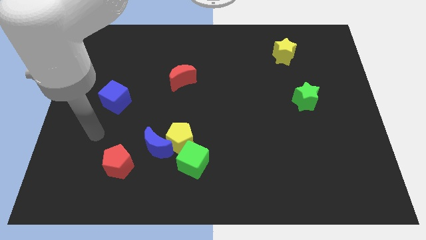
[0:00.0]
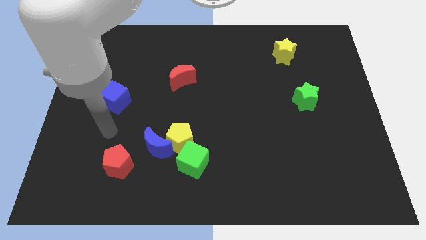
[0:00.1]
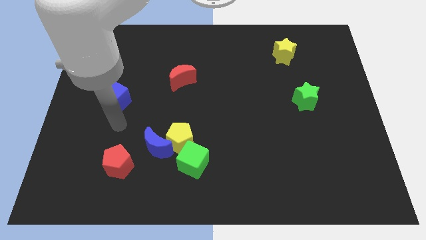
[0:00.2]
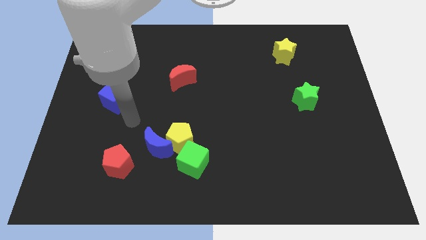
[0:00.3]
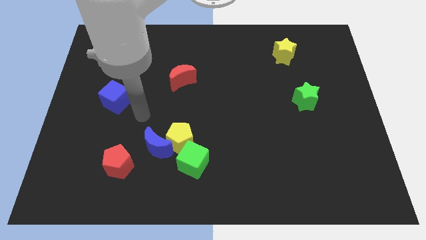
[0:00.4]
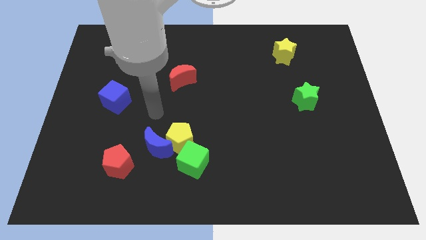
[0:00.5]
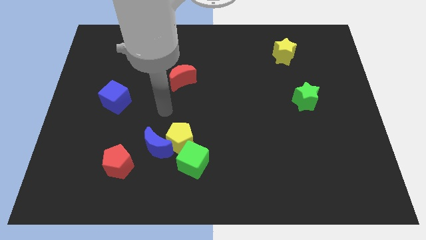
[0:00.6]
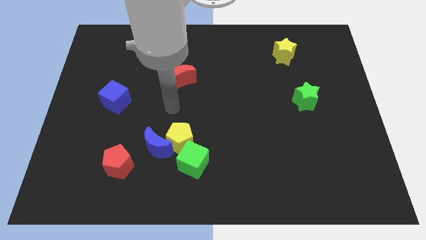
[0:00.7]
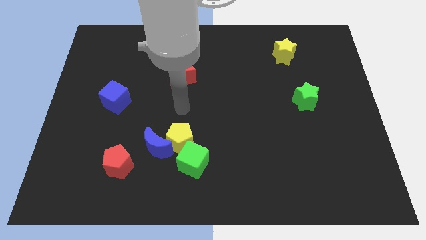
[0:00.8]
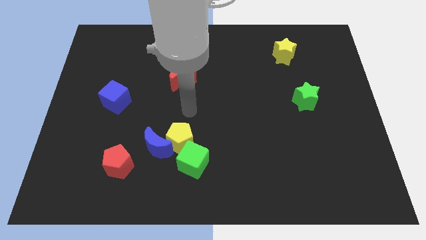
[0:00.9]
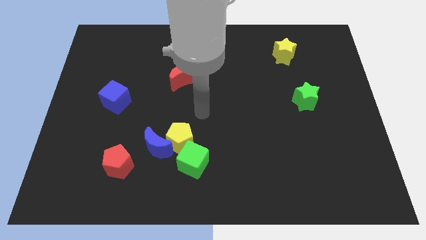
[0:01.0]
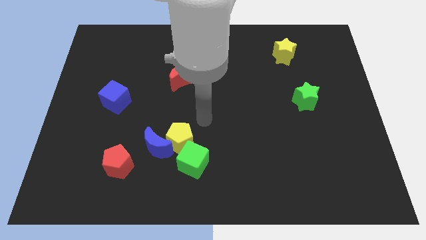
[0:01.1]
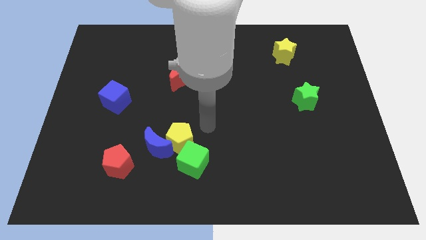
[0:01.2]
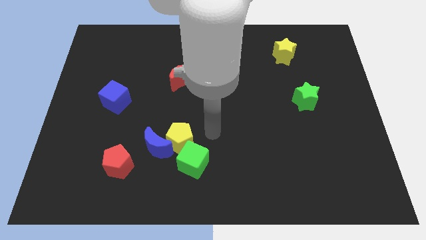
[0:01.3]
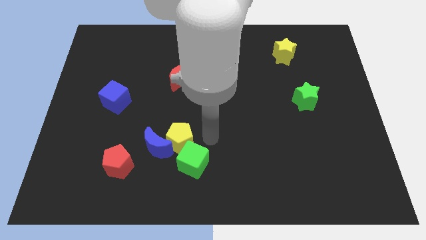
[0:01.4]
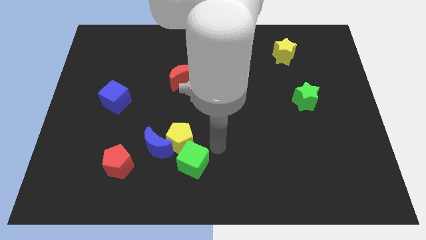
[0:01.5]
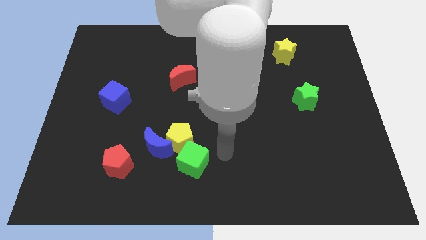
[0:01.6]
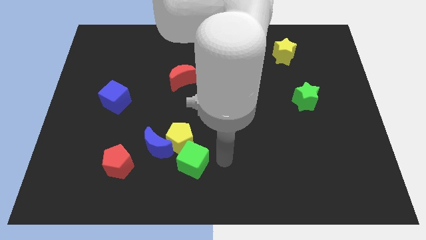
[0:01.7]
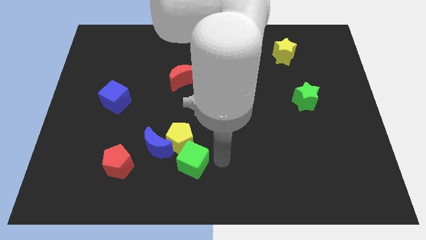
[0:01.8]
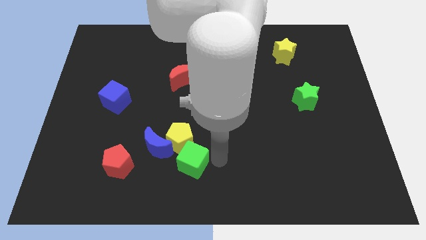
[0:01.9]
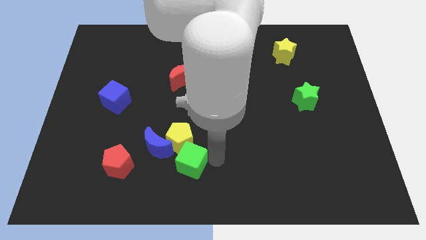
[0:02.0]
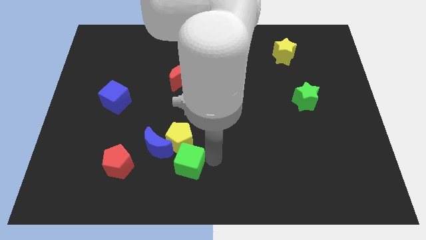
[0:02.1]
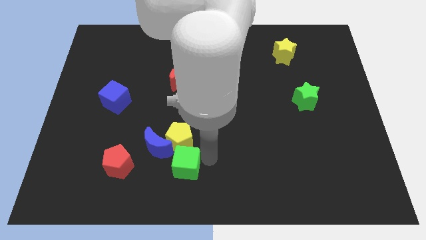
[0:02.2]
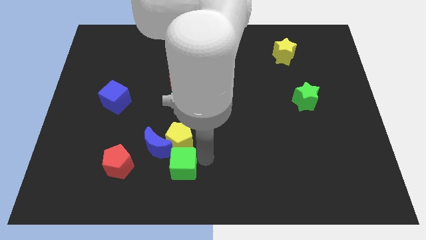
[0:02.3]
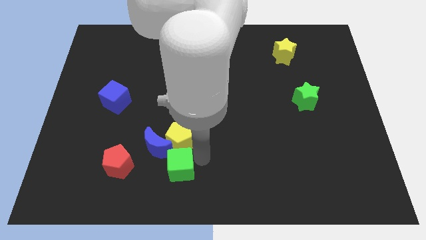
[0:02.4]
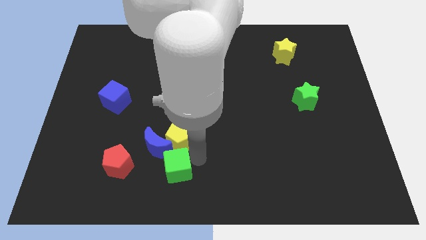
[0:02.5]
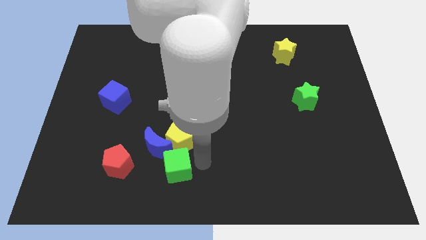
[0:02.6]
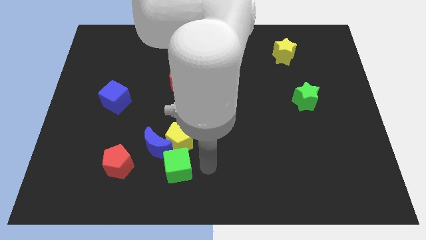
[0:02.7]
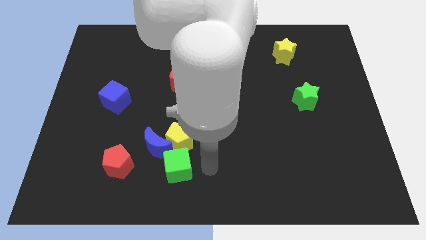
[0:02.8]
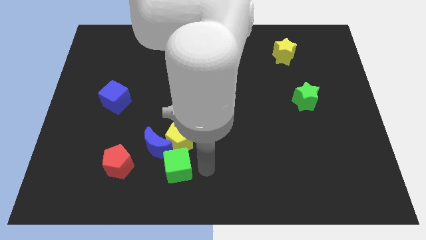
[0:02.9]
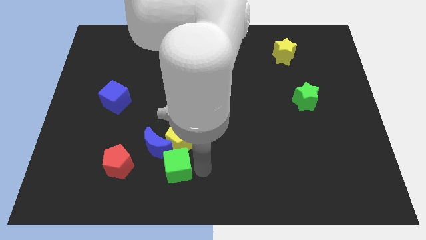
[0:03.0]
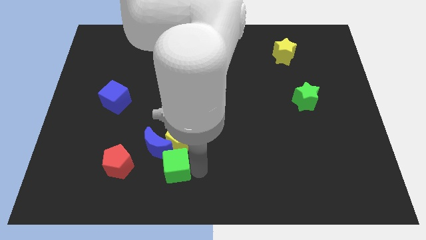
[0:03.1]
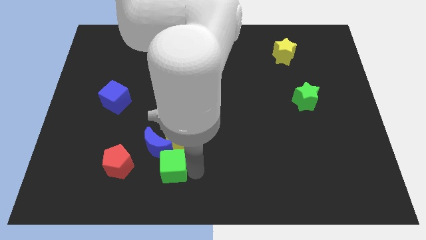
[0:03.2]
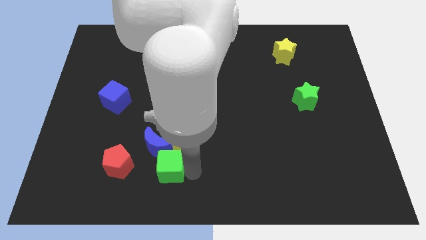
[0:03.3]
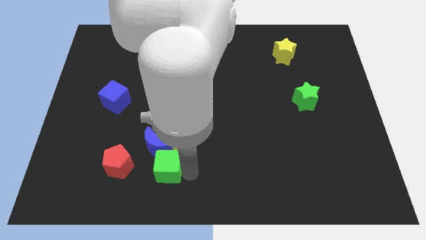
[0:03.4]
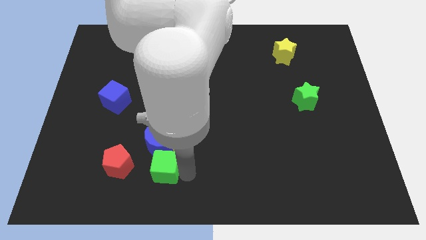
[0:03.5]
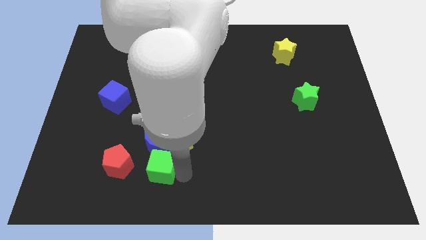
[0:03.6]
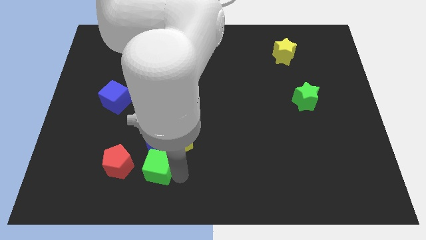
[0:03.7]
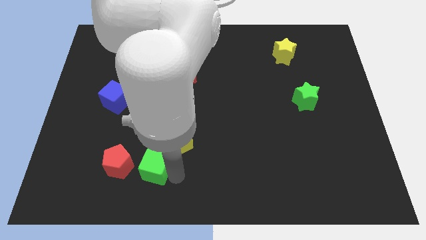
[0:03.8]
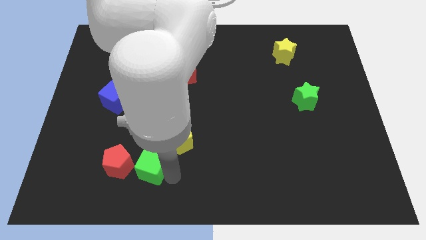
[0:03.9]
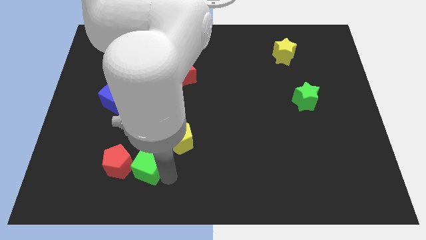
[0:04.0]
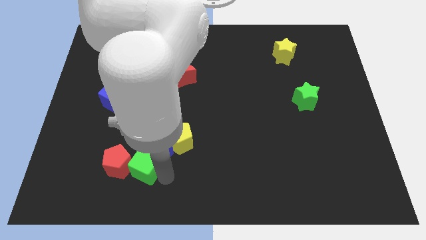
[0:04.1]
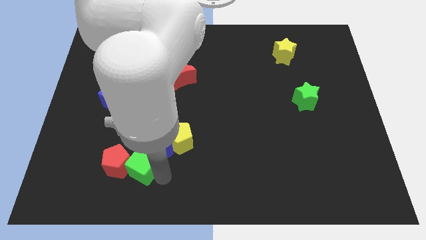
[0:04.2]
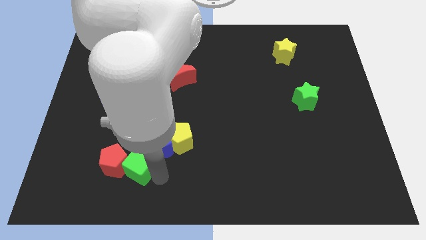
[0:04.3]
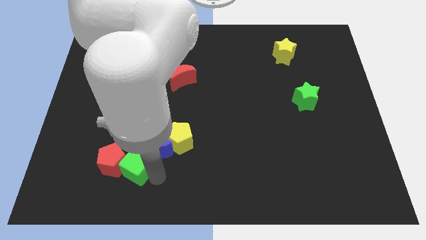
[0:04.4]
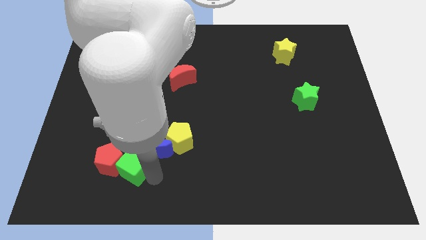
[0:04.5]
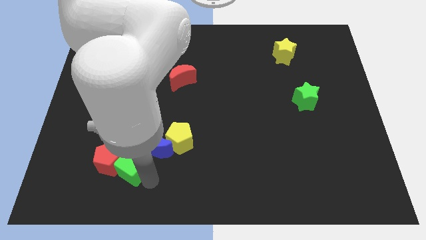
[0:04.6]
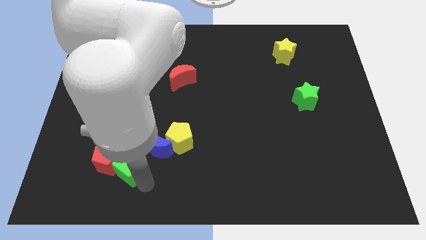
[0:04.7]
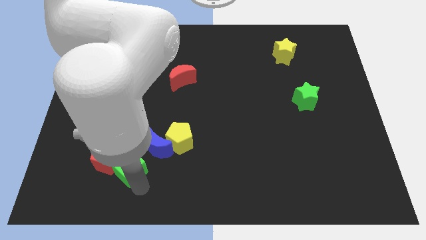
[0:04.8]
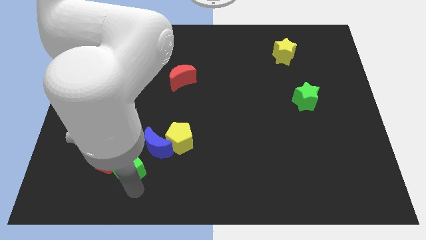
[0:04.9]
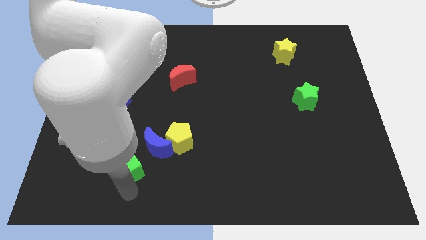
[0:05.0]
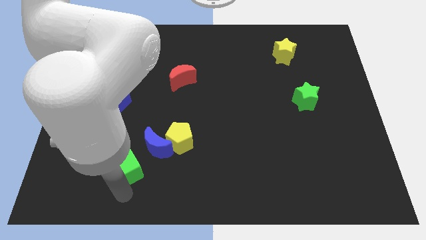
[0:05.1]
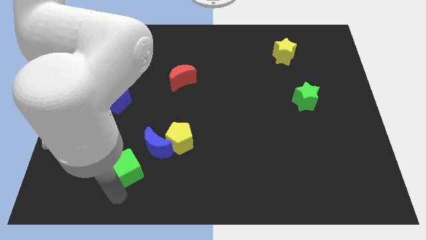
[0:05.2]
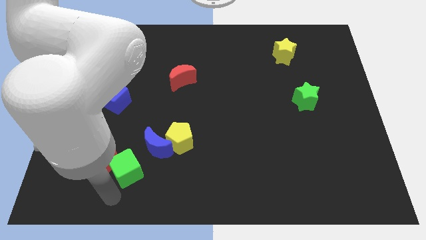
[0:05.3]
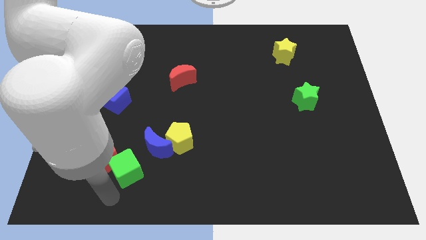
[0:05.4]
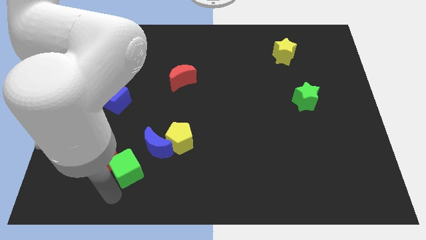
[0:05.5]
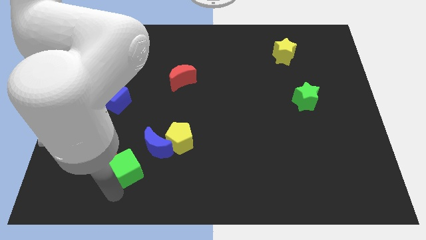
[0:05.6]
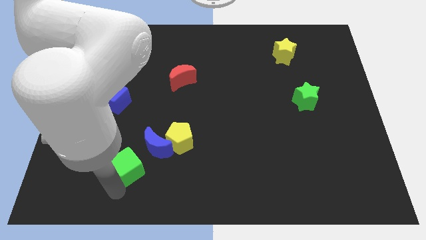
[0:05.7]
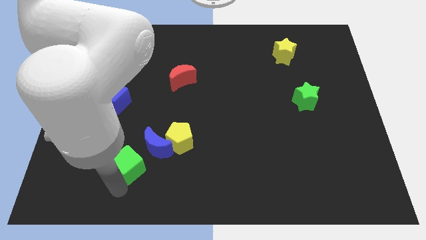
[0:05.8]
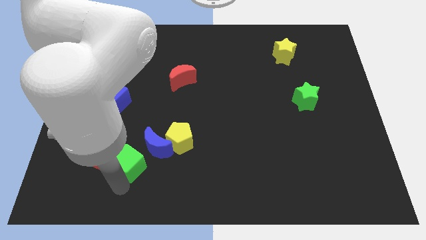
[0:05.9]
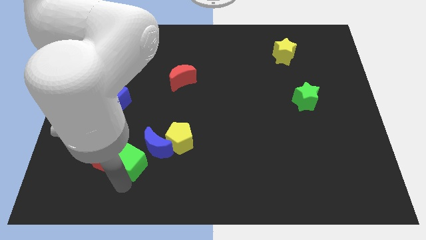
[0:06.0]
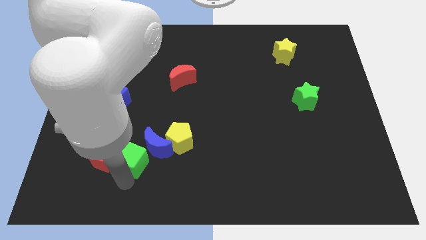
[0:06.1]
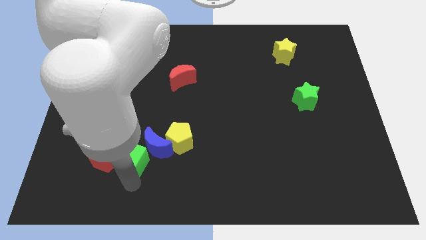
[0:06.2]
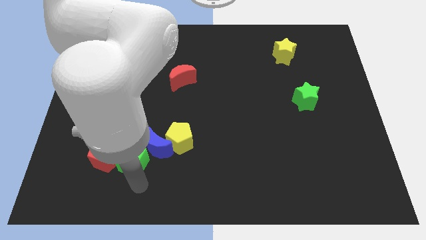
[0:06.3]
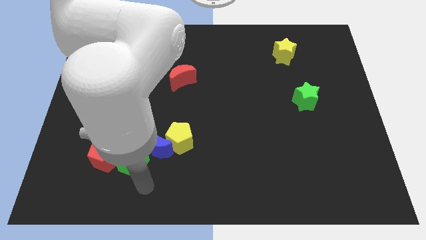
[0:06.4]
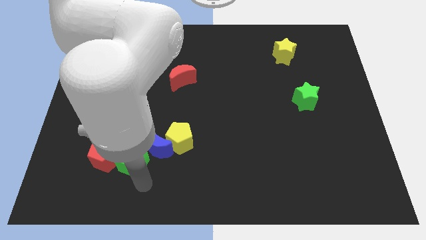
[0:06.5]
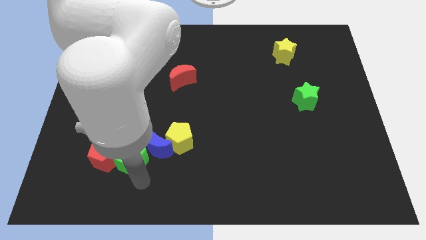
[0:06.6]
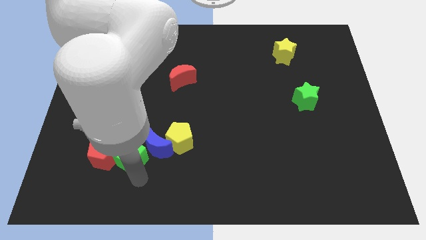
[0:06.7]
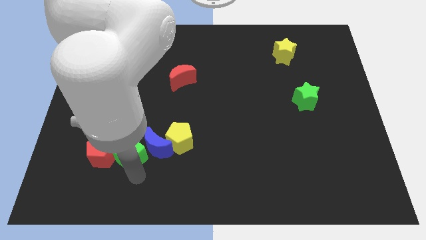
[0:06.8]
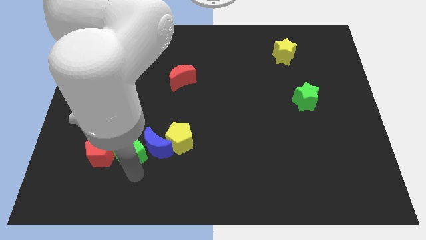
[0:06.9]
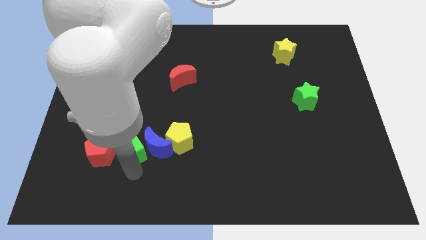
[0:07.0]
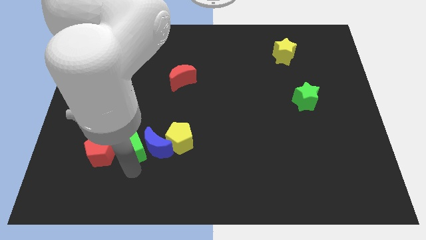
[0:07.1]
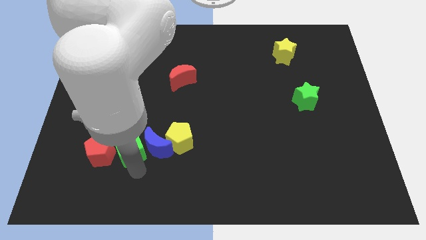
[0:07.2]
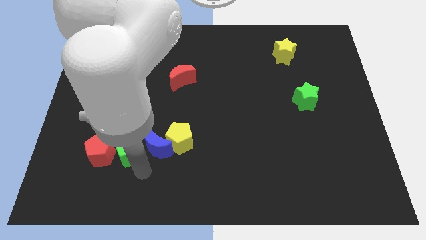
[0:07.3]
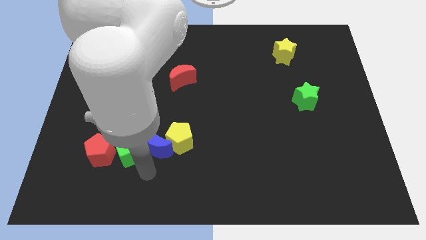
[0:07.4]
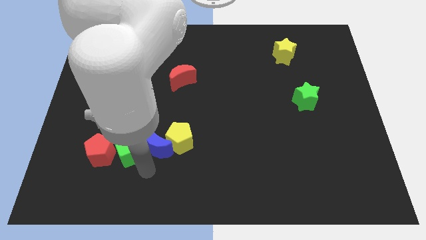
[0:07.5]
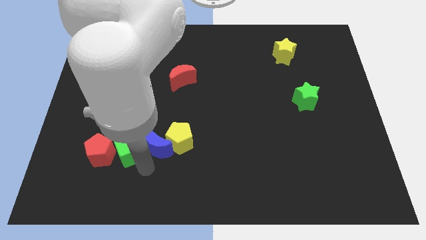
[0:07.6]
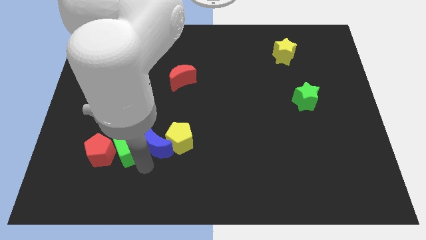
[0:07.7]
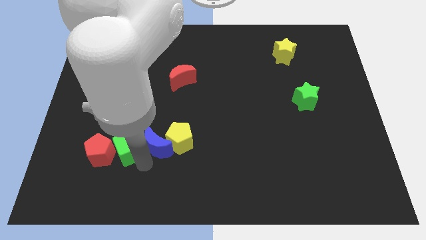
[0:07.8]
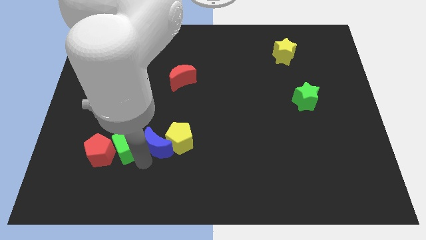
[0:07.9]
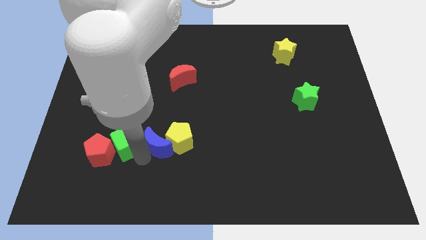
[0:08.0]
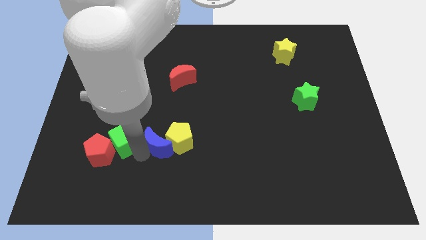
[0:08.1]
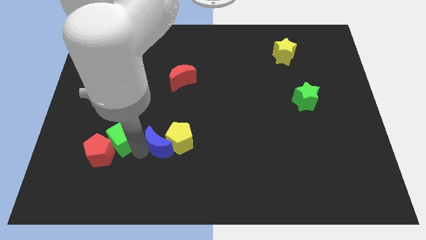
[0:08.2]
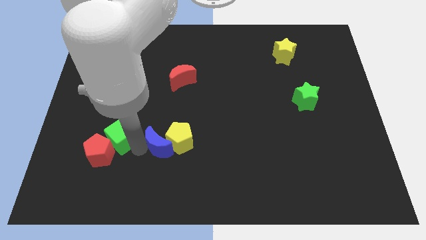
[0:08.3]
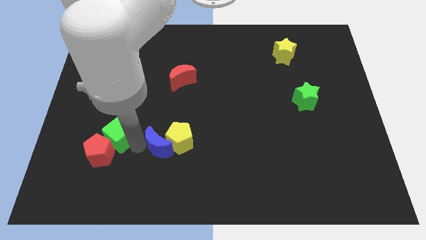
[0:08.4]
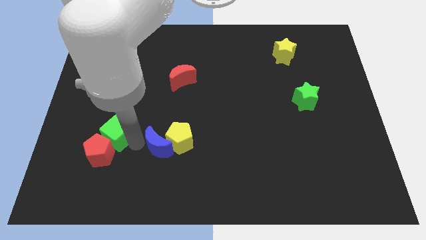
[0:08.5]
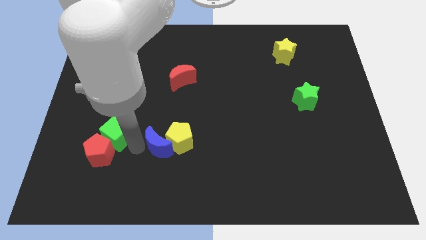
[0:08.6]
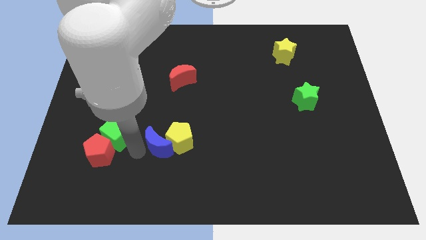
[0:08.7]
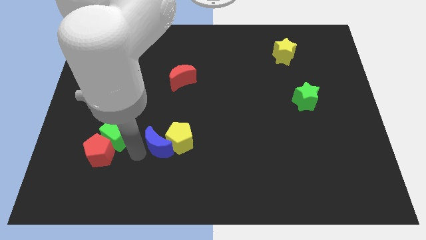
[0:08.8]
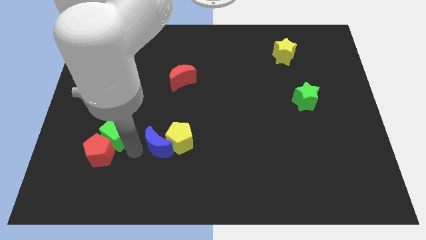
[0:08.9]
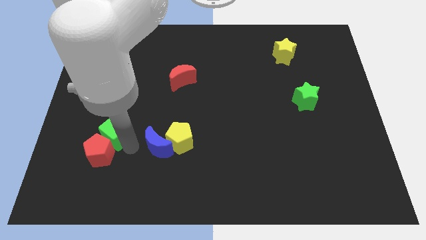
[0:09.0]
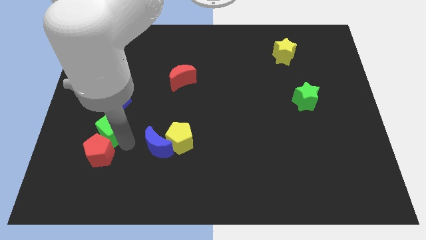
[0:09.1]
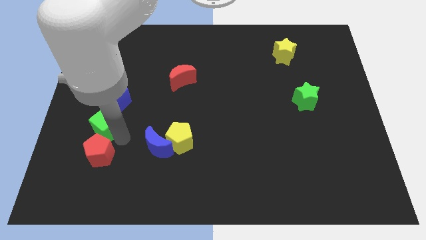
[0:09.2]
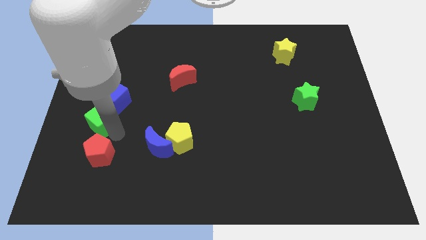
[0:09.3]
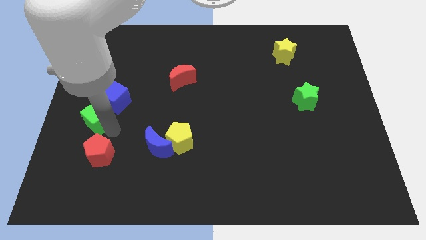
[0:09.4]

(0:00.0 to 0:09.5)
push the green cube upwards and to the left diagonally
